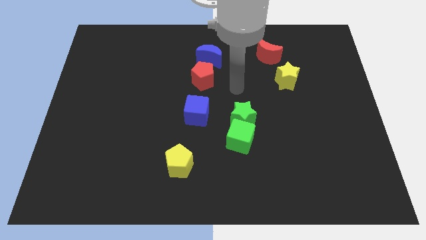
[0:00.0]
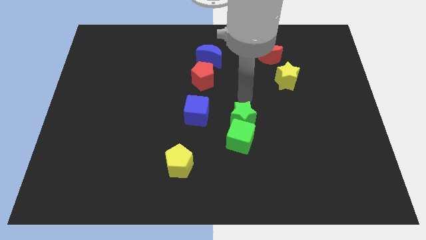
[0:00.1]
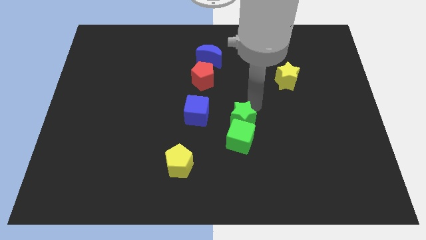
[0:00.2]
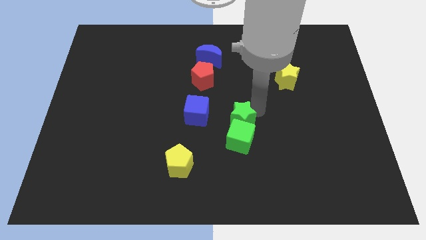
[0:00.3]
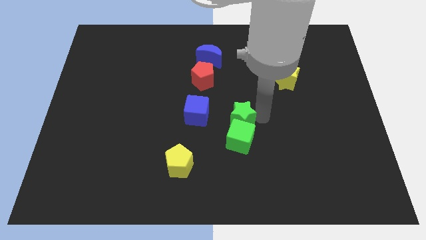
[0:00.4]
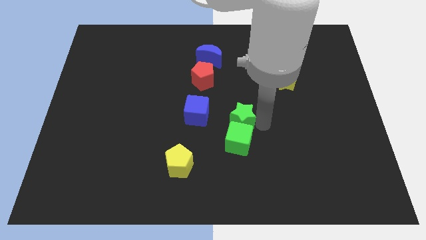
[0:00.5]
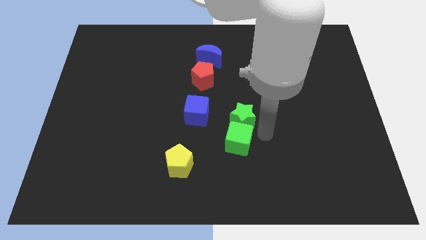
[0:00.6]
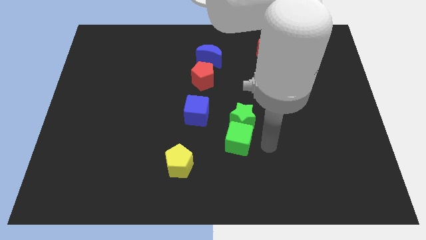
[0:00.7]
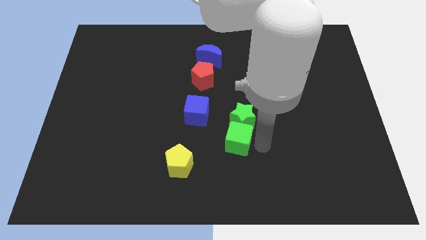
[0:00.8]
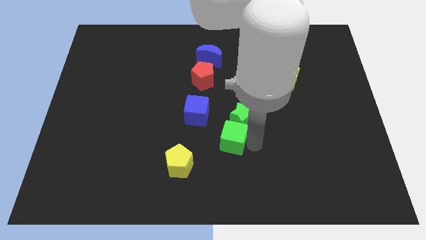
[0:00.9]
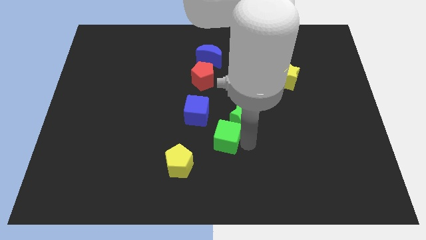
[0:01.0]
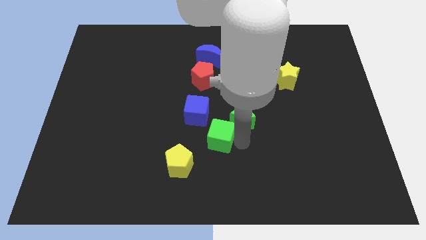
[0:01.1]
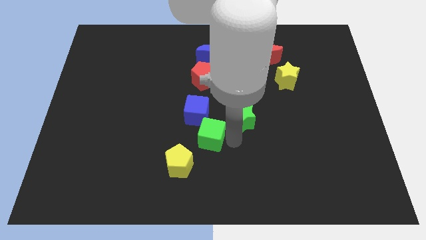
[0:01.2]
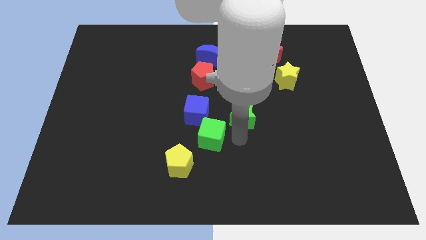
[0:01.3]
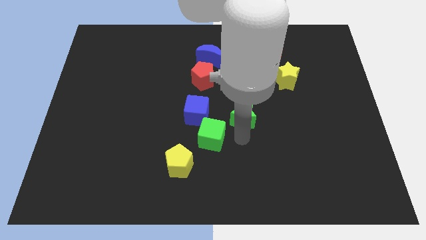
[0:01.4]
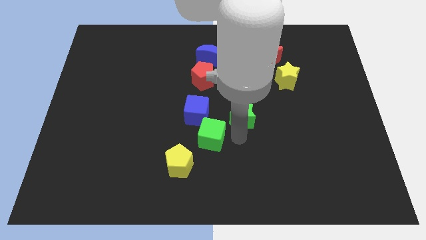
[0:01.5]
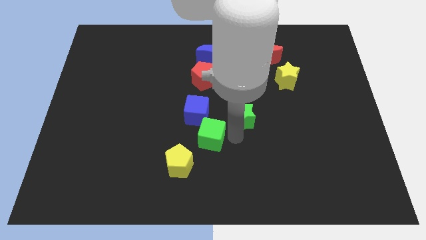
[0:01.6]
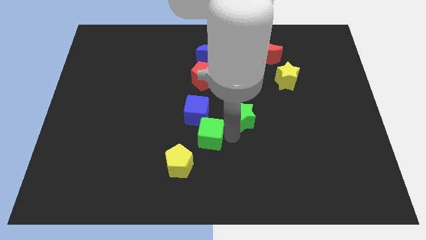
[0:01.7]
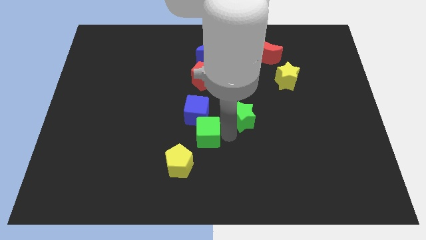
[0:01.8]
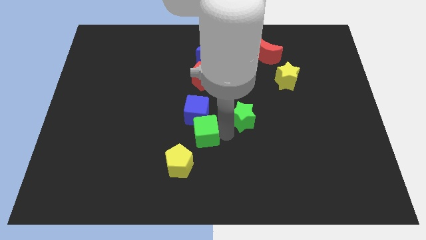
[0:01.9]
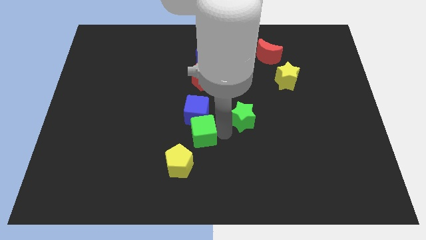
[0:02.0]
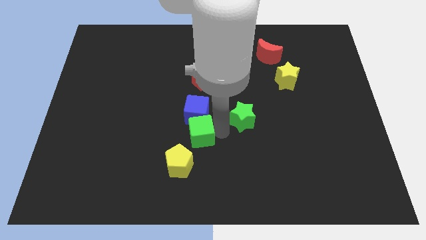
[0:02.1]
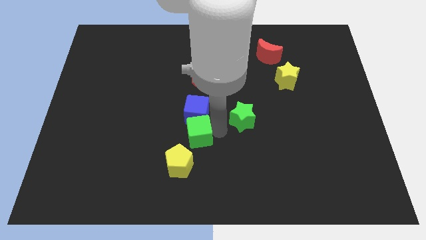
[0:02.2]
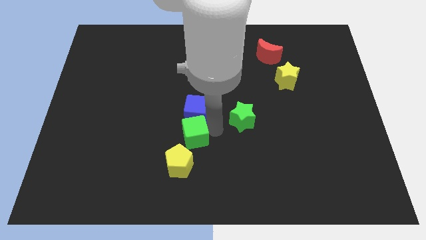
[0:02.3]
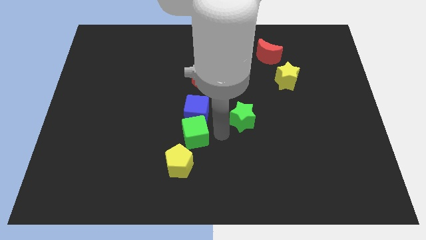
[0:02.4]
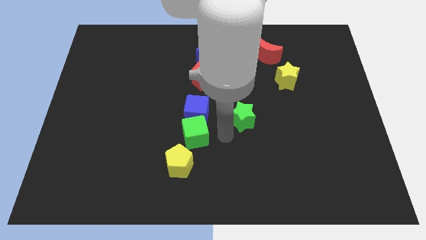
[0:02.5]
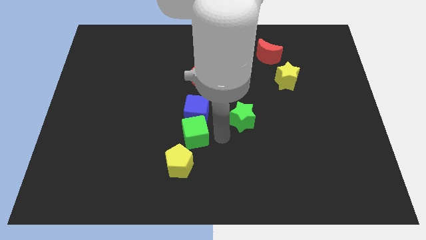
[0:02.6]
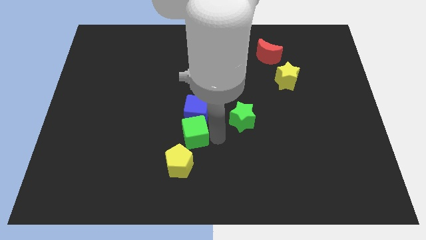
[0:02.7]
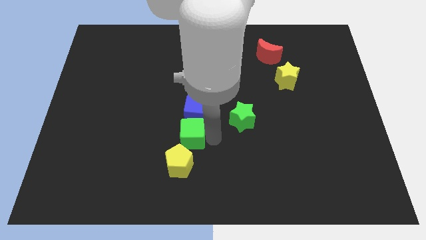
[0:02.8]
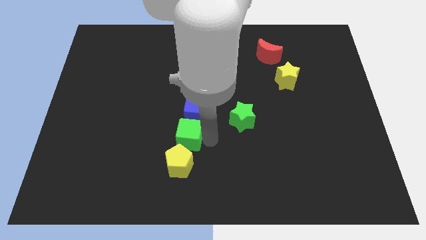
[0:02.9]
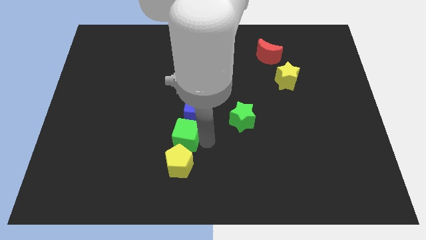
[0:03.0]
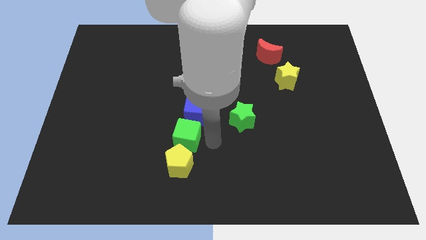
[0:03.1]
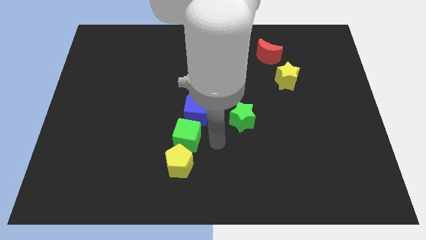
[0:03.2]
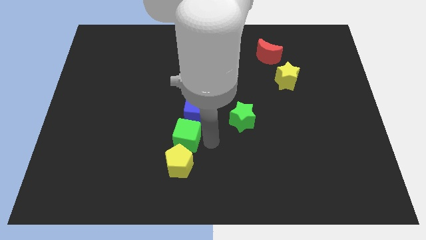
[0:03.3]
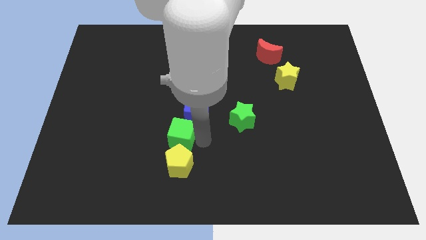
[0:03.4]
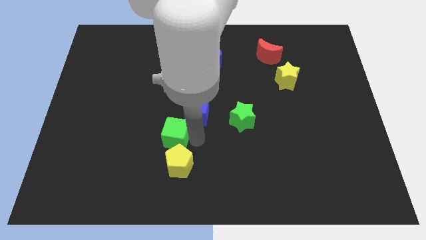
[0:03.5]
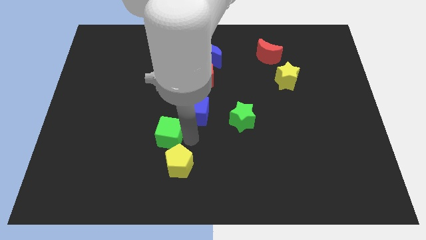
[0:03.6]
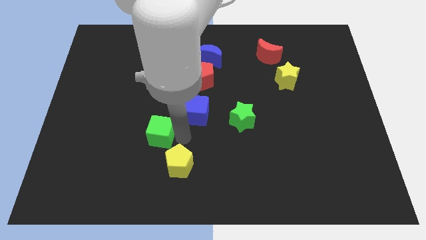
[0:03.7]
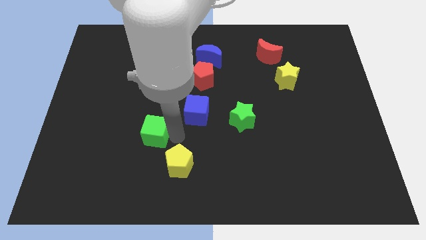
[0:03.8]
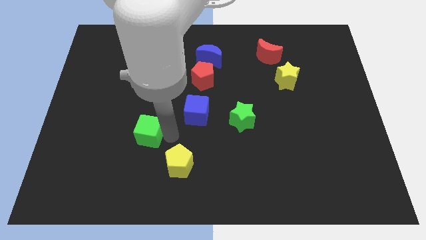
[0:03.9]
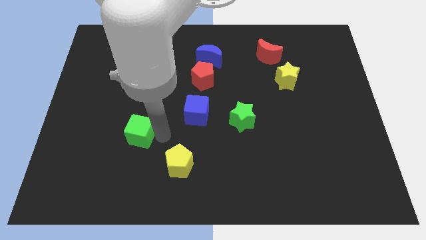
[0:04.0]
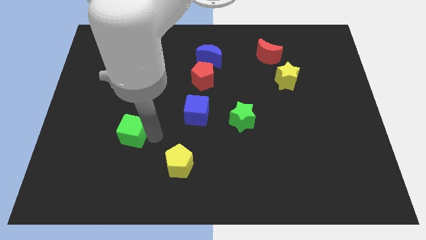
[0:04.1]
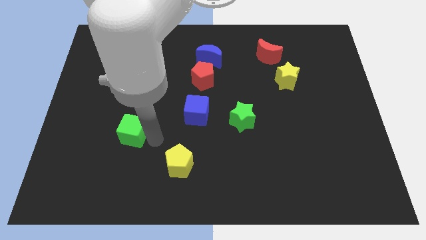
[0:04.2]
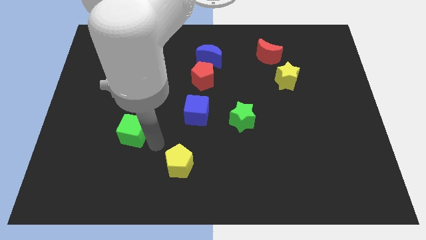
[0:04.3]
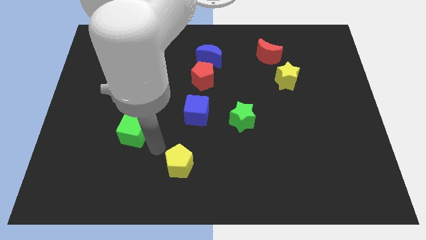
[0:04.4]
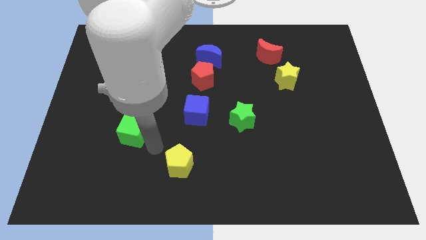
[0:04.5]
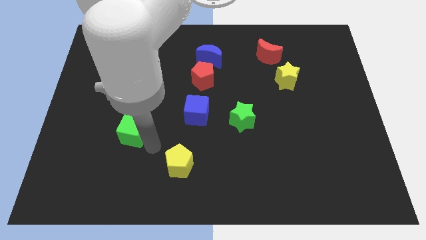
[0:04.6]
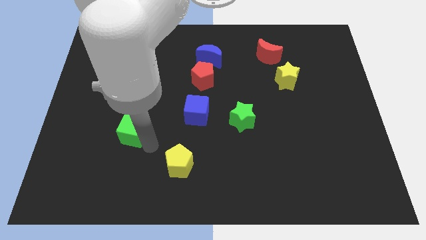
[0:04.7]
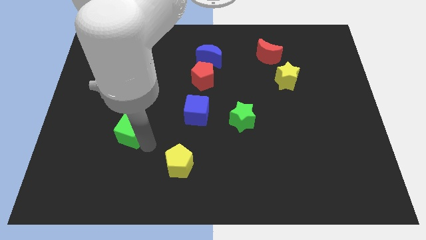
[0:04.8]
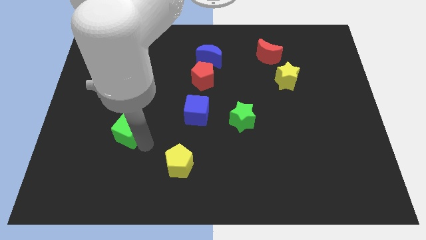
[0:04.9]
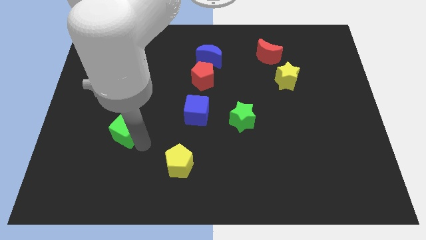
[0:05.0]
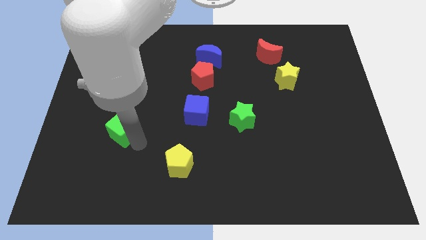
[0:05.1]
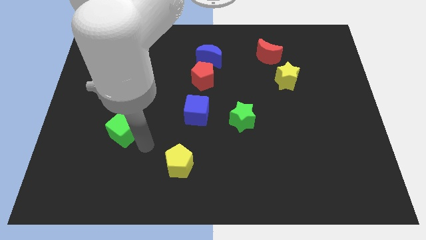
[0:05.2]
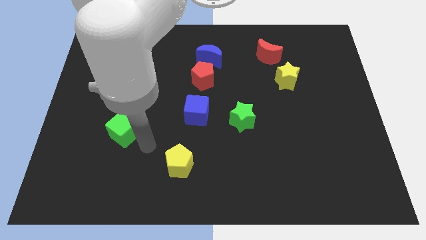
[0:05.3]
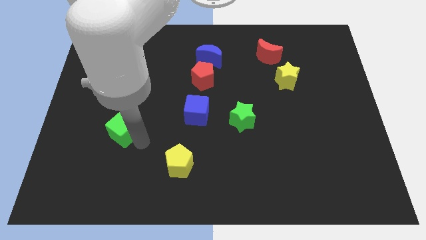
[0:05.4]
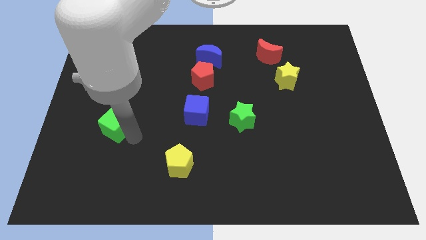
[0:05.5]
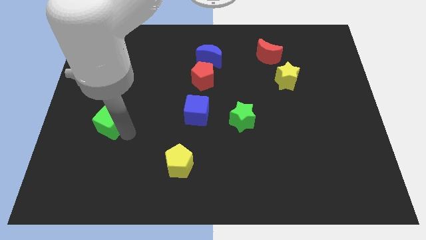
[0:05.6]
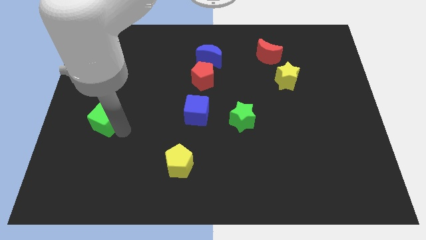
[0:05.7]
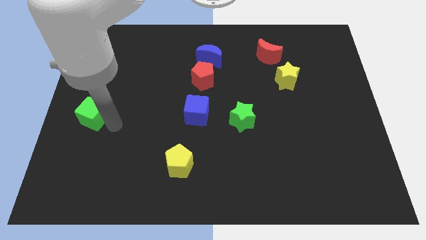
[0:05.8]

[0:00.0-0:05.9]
push the green cube to the left side of the board

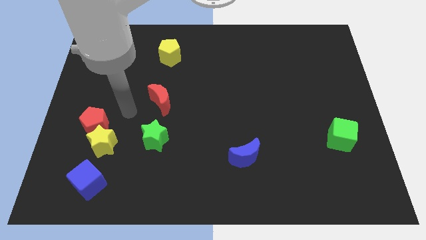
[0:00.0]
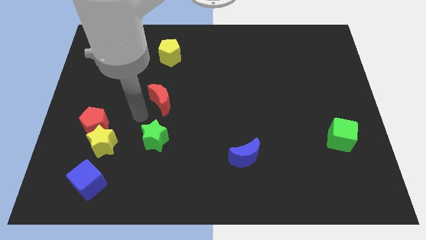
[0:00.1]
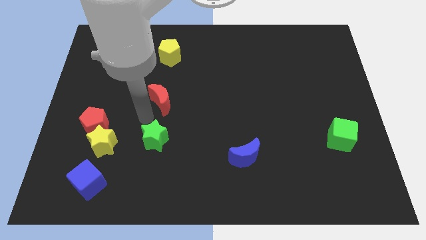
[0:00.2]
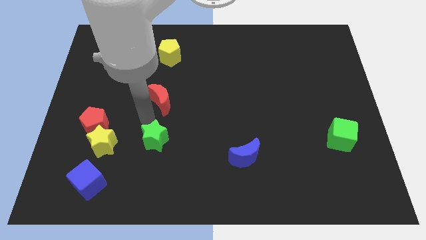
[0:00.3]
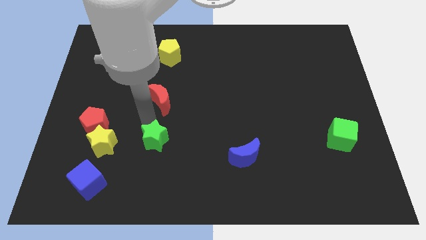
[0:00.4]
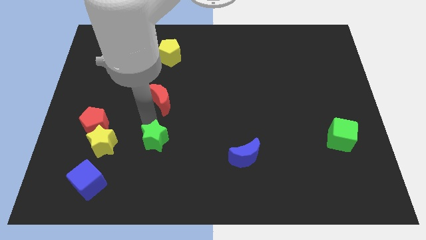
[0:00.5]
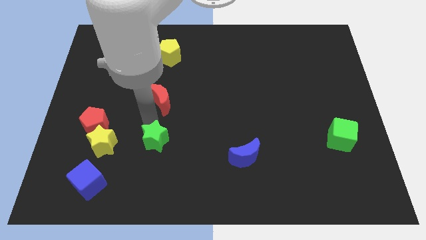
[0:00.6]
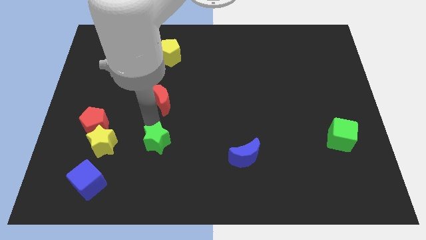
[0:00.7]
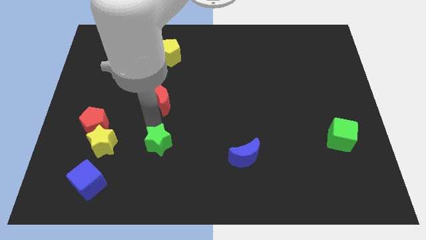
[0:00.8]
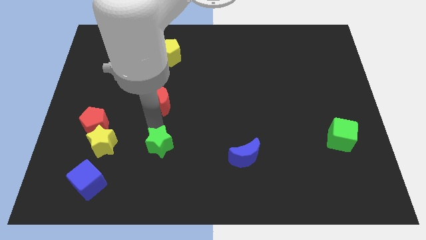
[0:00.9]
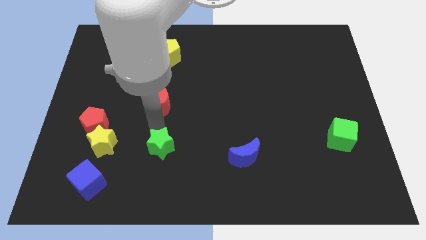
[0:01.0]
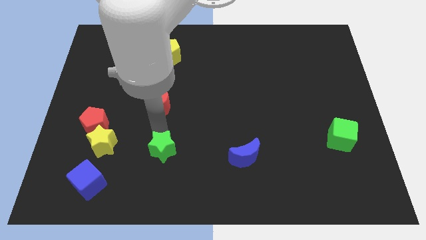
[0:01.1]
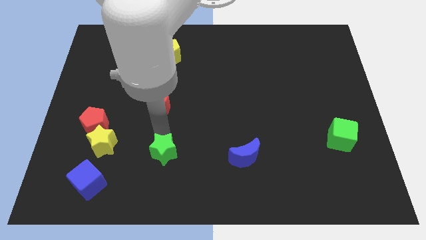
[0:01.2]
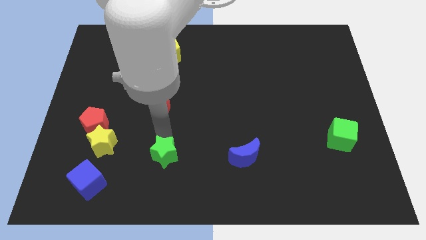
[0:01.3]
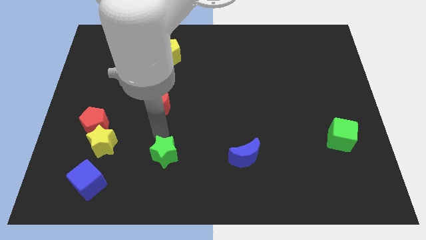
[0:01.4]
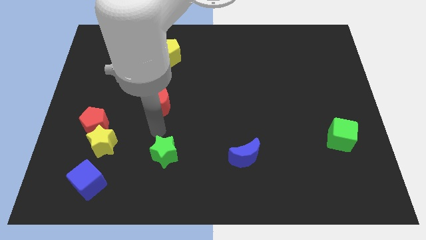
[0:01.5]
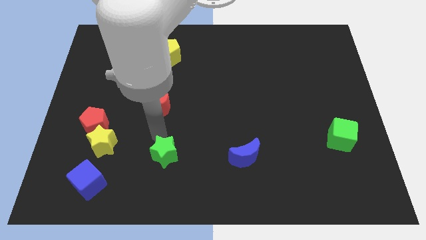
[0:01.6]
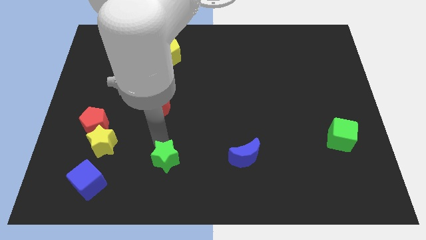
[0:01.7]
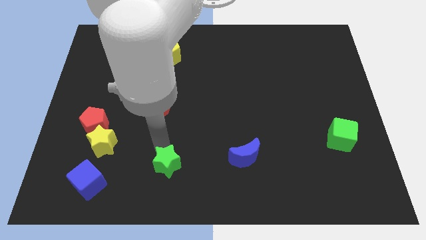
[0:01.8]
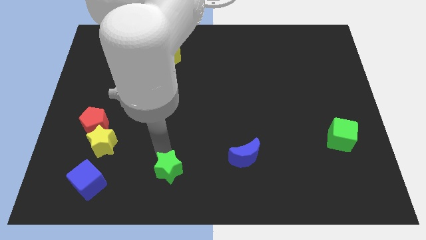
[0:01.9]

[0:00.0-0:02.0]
put the green star to the bottom side
